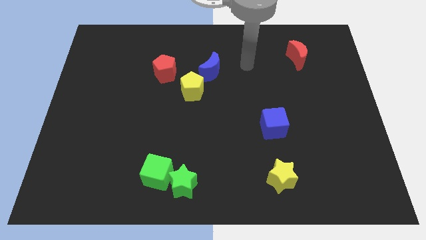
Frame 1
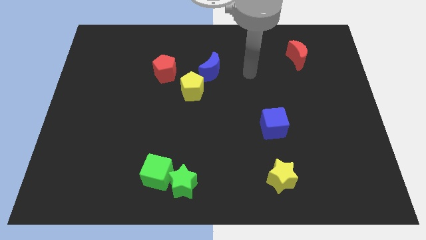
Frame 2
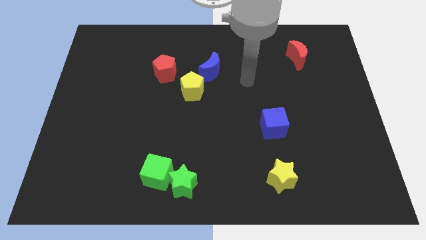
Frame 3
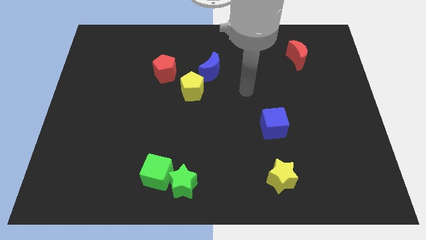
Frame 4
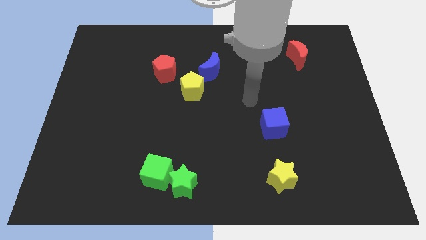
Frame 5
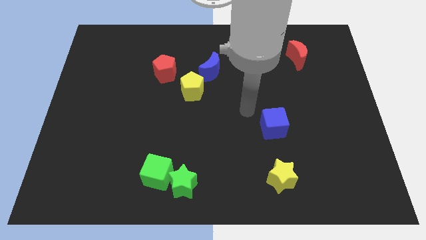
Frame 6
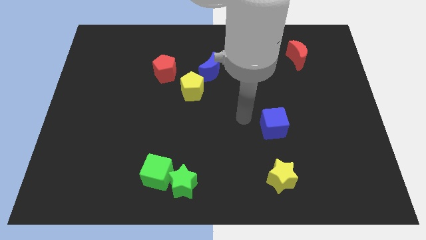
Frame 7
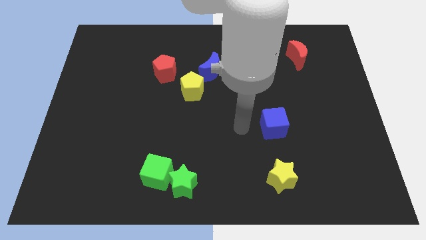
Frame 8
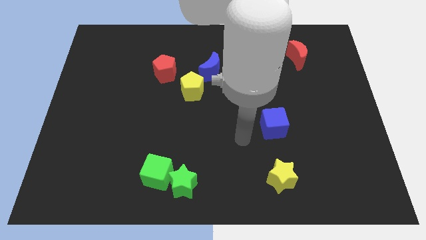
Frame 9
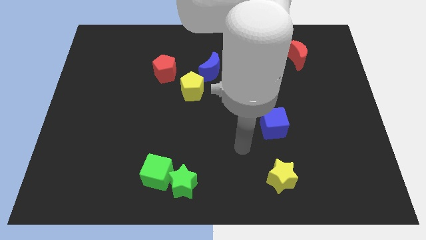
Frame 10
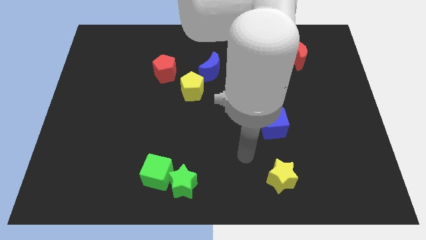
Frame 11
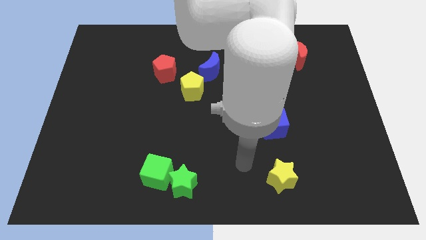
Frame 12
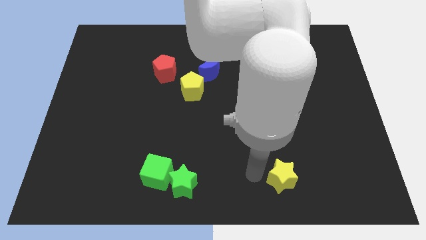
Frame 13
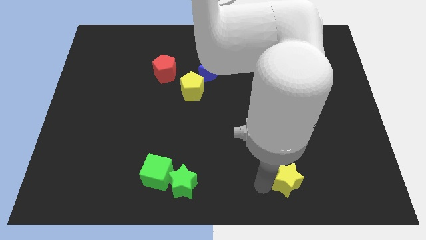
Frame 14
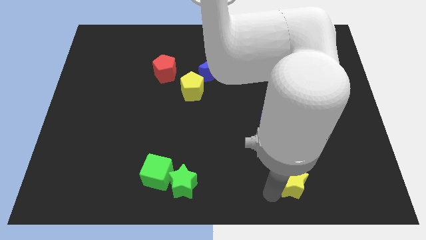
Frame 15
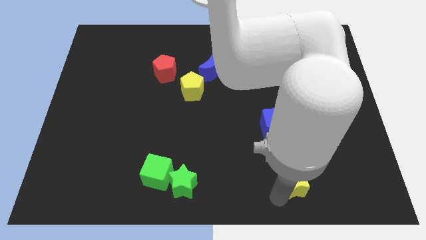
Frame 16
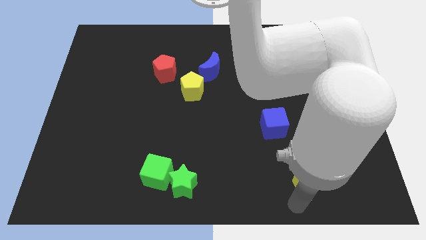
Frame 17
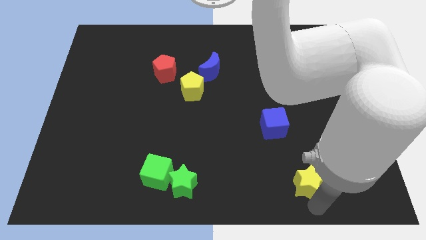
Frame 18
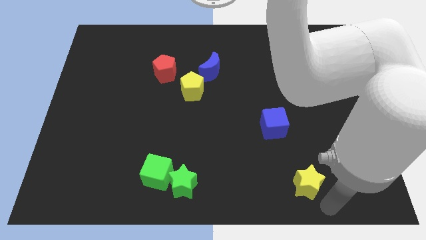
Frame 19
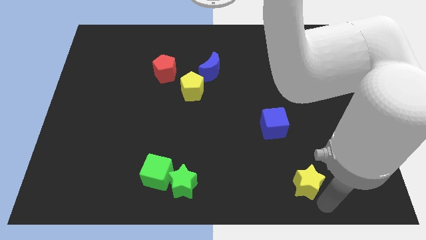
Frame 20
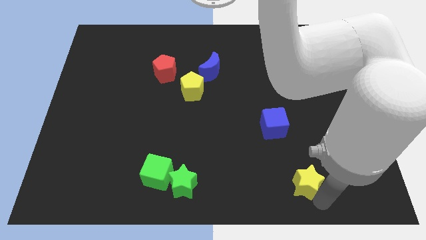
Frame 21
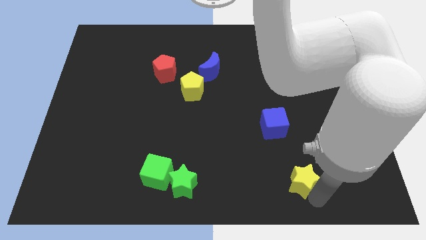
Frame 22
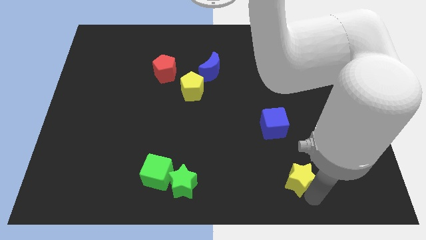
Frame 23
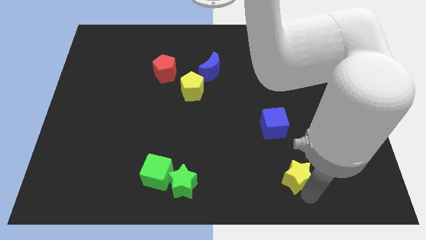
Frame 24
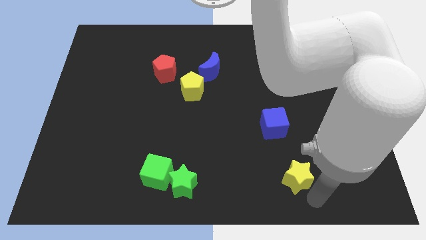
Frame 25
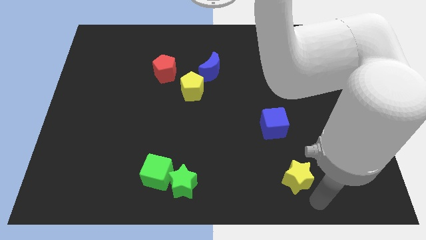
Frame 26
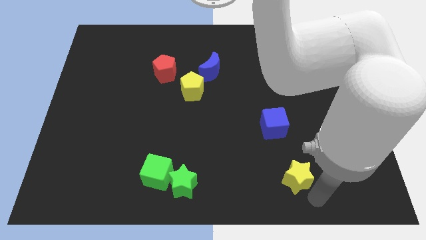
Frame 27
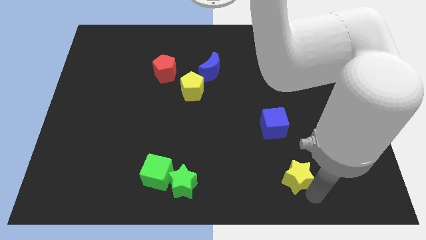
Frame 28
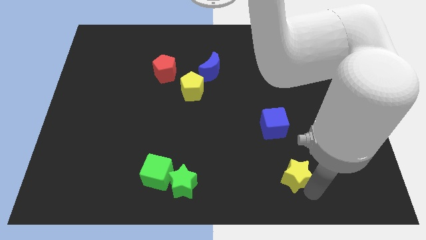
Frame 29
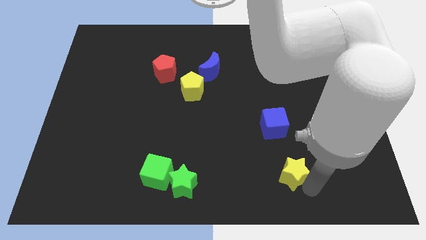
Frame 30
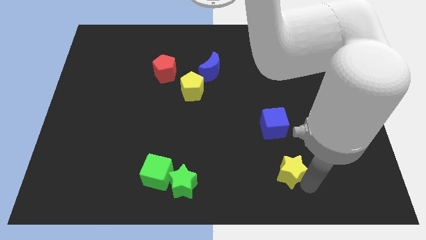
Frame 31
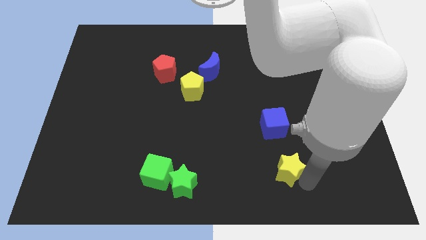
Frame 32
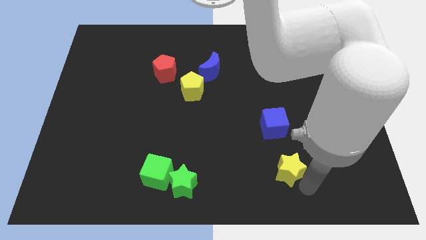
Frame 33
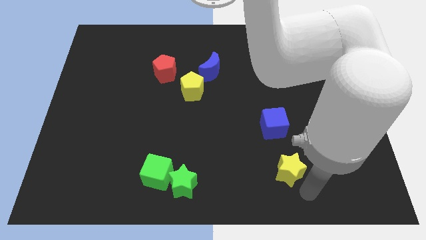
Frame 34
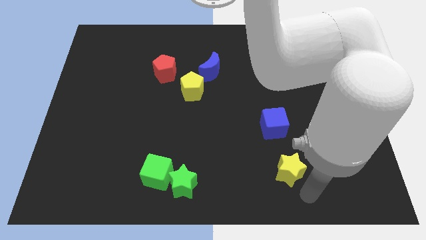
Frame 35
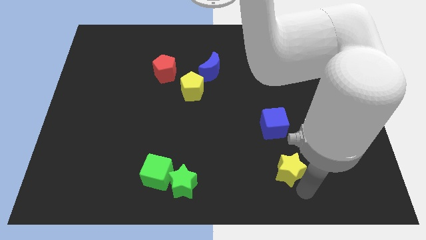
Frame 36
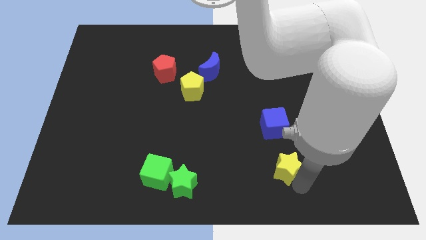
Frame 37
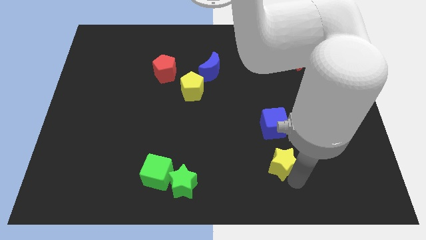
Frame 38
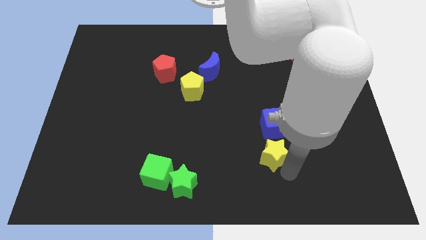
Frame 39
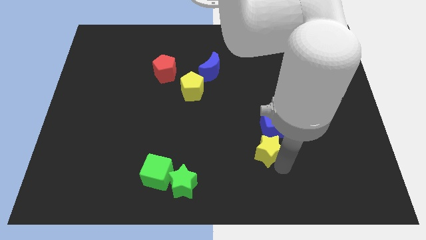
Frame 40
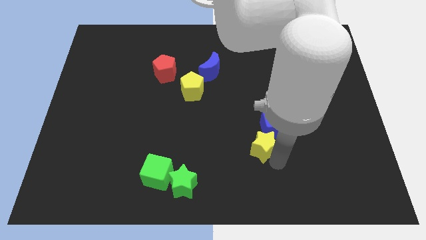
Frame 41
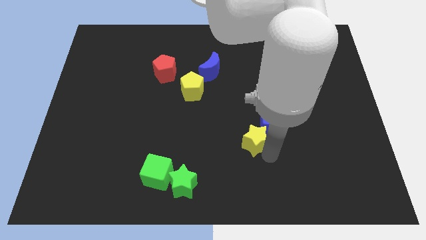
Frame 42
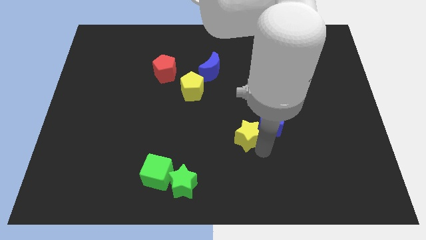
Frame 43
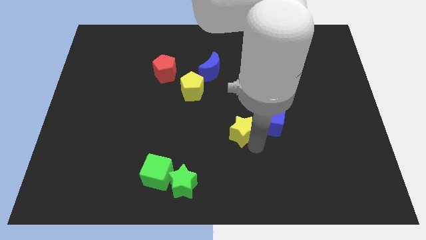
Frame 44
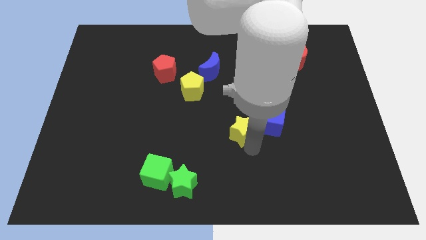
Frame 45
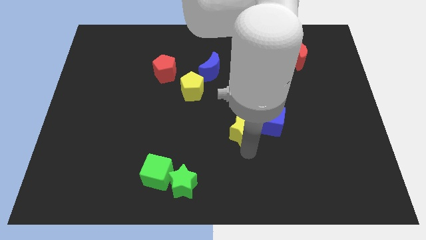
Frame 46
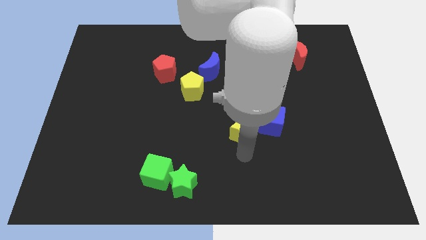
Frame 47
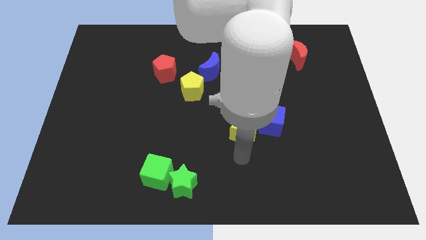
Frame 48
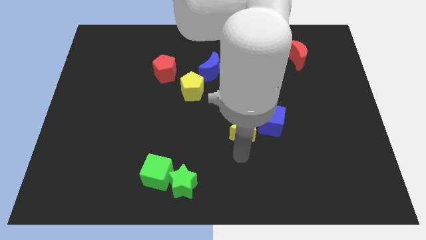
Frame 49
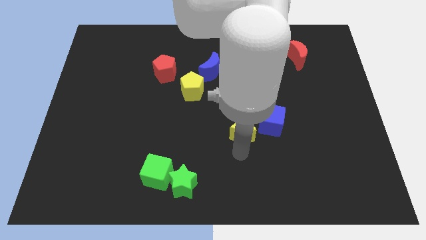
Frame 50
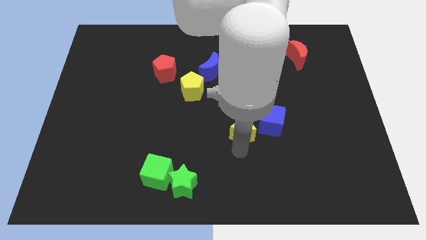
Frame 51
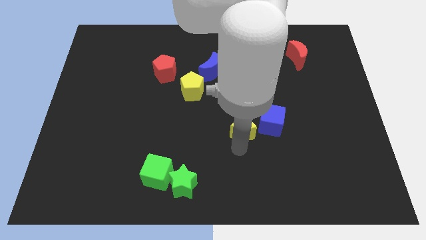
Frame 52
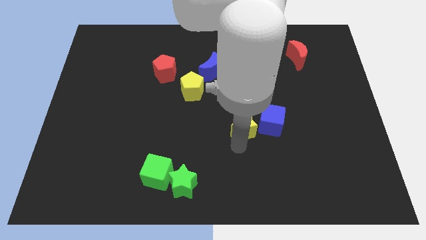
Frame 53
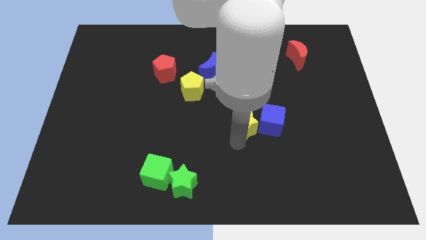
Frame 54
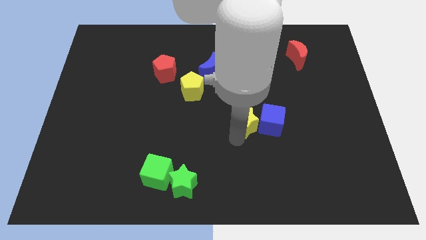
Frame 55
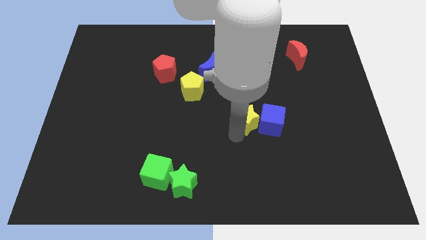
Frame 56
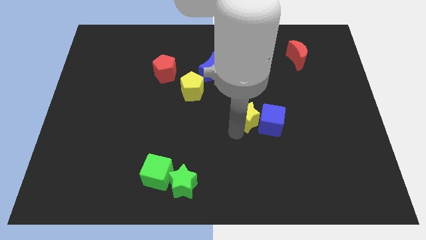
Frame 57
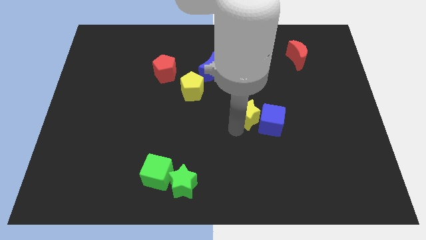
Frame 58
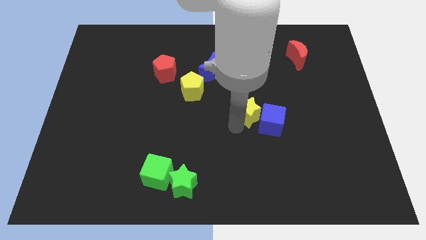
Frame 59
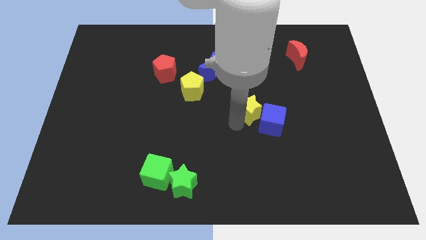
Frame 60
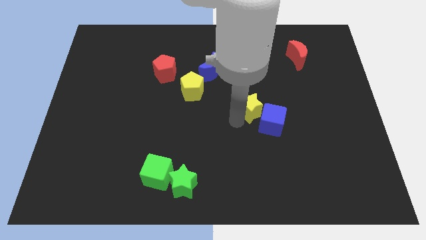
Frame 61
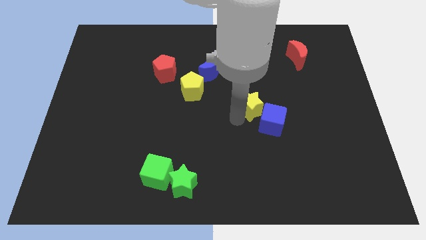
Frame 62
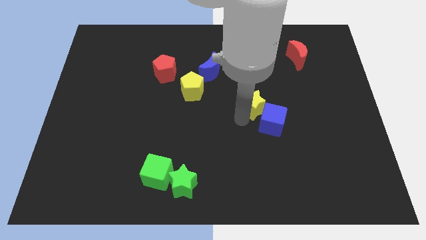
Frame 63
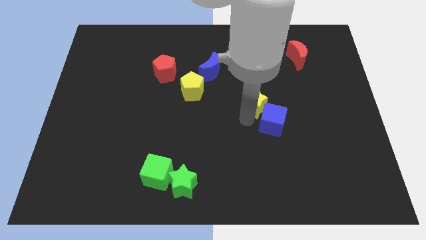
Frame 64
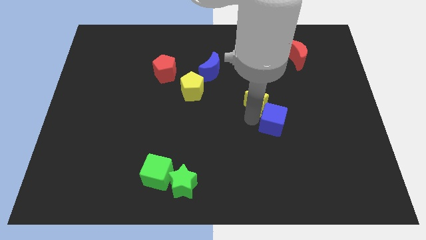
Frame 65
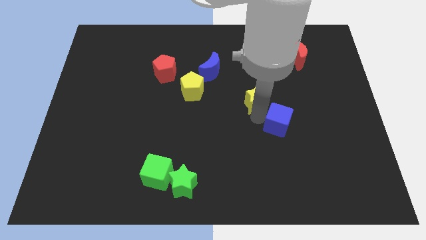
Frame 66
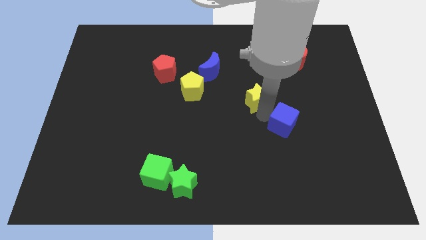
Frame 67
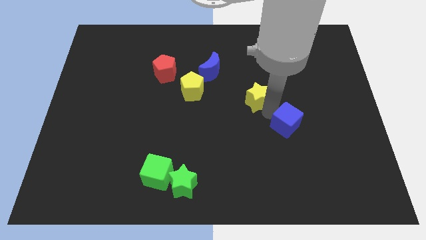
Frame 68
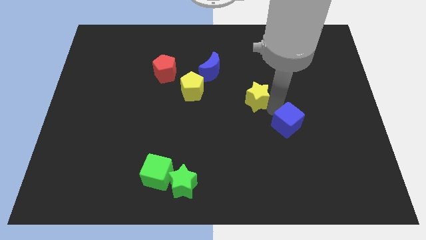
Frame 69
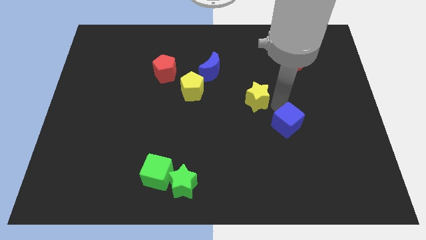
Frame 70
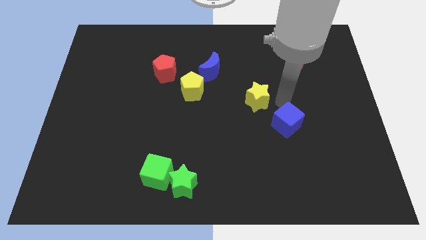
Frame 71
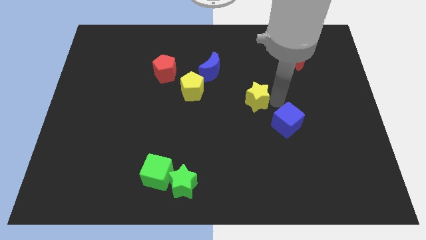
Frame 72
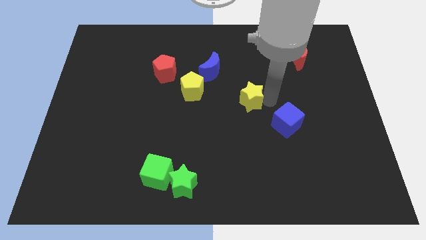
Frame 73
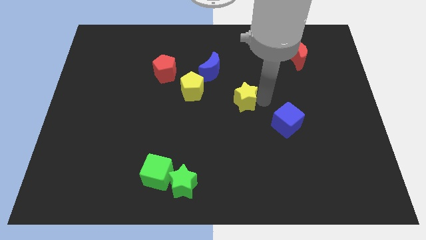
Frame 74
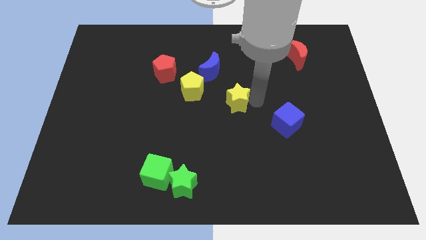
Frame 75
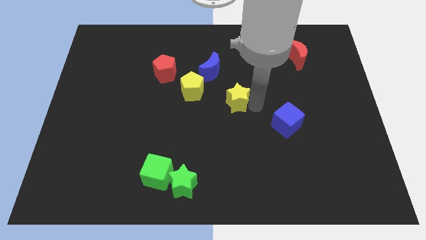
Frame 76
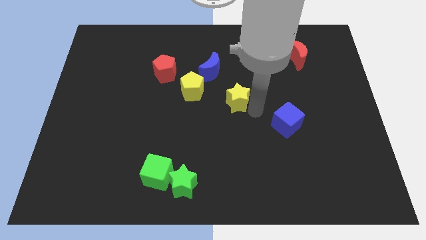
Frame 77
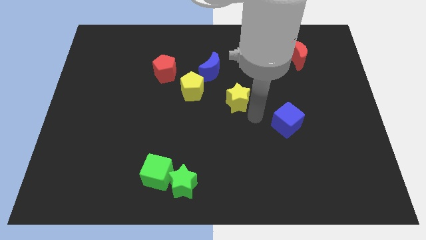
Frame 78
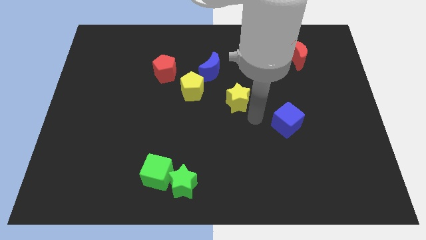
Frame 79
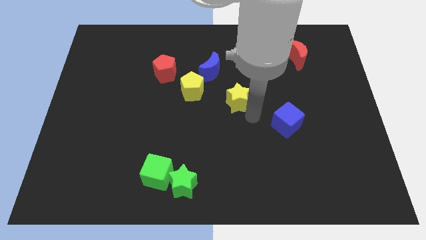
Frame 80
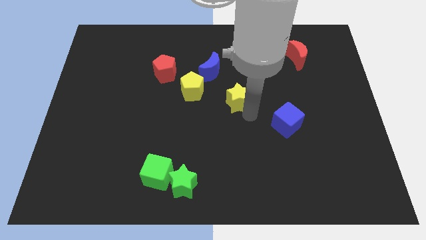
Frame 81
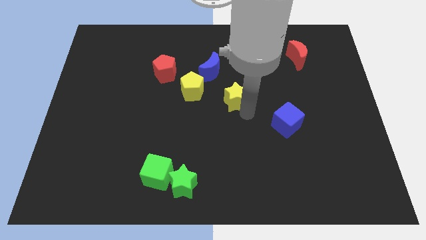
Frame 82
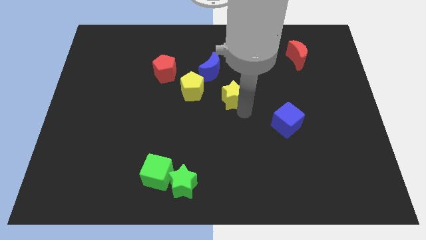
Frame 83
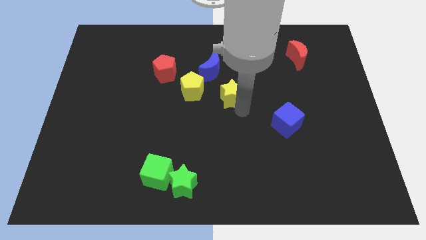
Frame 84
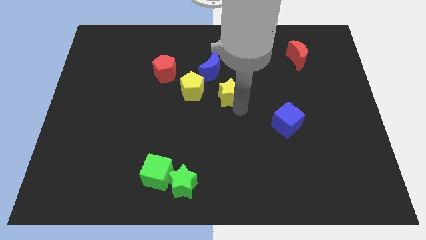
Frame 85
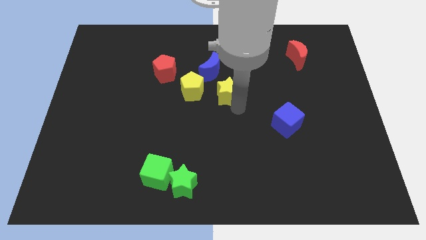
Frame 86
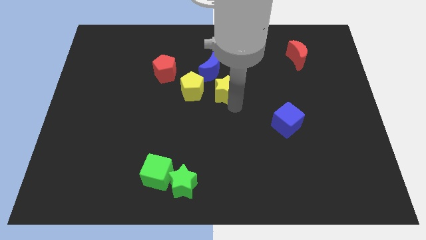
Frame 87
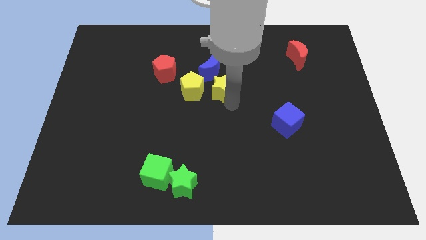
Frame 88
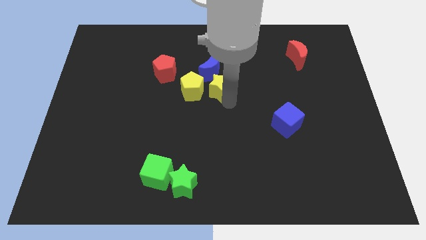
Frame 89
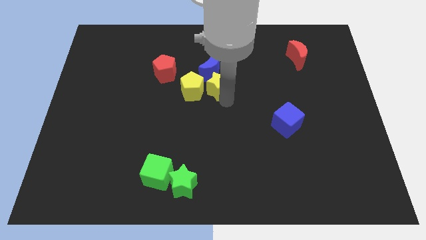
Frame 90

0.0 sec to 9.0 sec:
put the yellow star close to the blue moon
